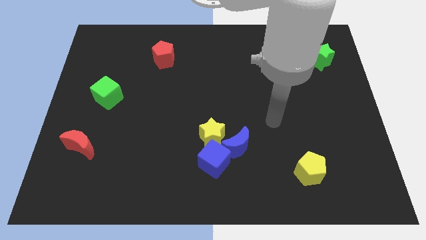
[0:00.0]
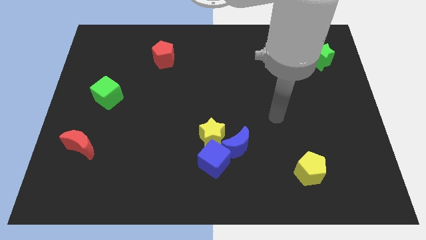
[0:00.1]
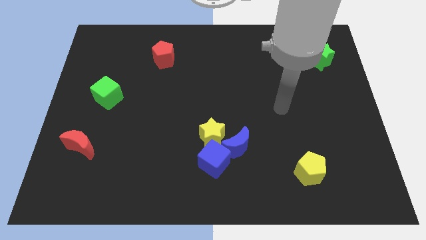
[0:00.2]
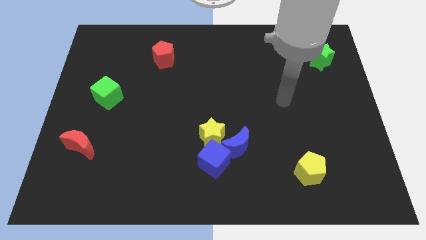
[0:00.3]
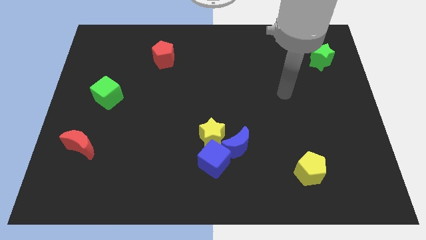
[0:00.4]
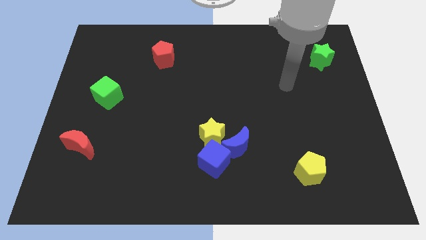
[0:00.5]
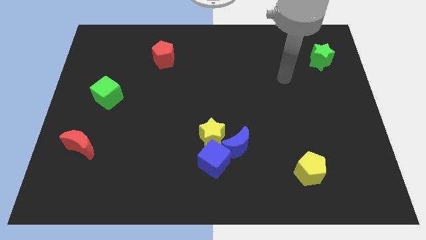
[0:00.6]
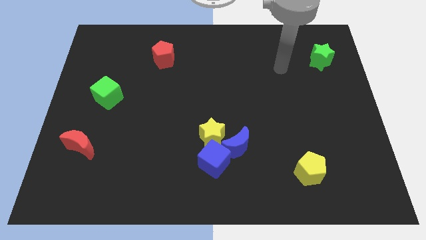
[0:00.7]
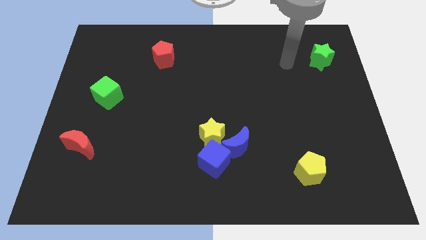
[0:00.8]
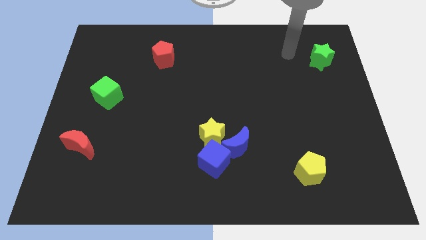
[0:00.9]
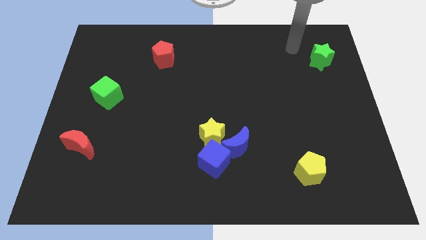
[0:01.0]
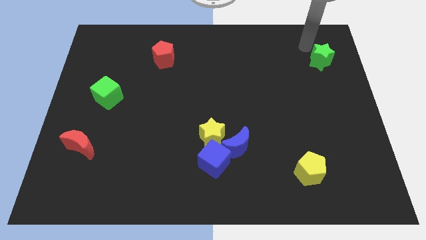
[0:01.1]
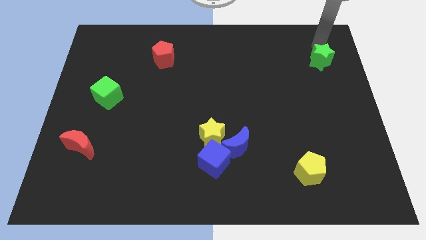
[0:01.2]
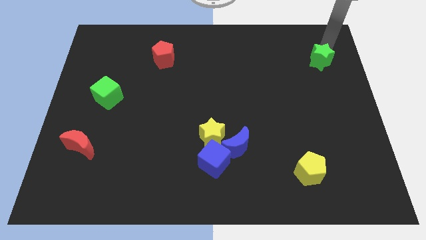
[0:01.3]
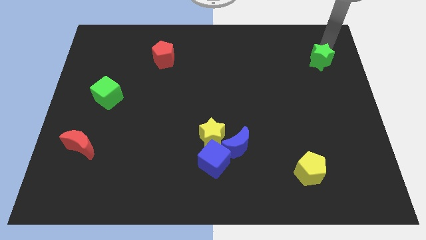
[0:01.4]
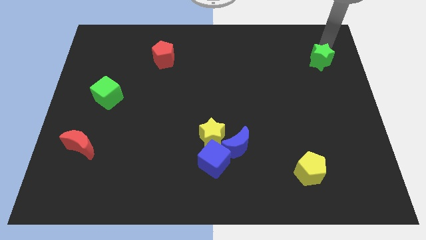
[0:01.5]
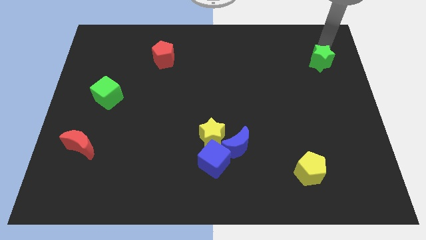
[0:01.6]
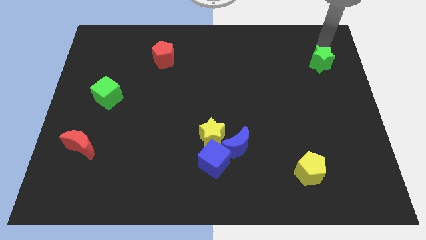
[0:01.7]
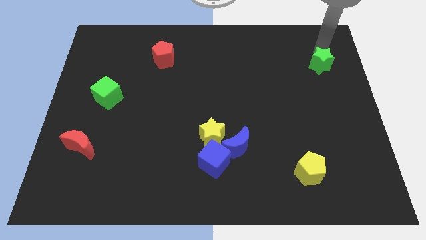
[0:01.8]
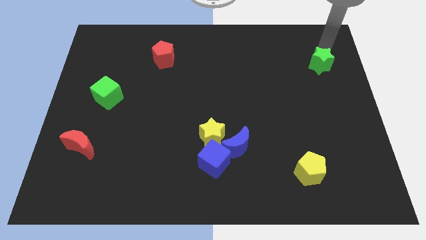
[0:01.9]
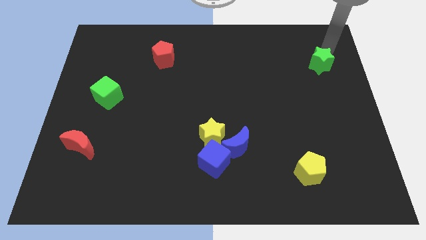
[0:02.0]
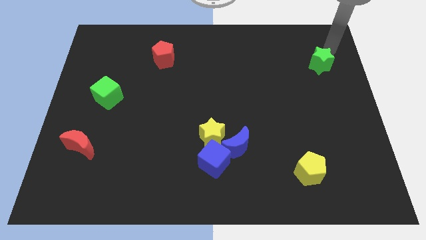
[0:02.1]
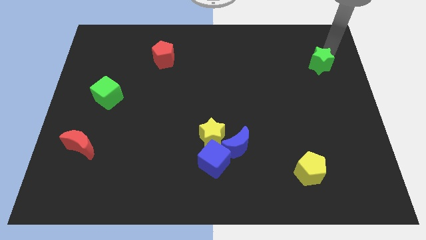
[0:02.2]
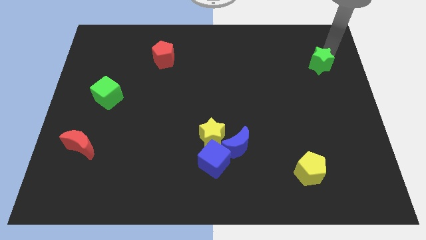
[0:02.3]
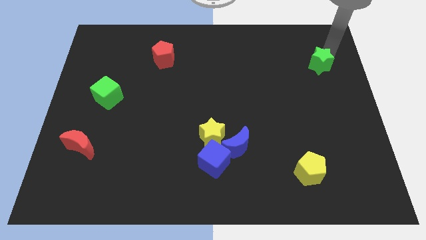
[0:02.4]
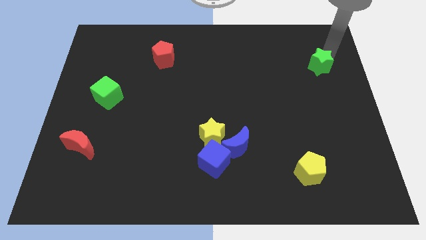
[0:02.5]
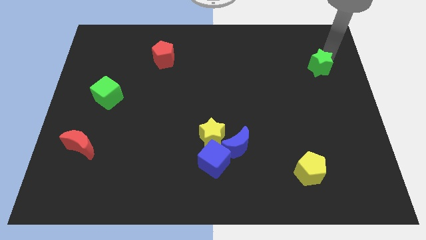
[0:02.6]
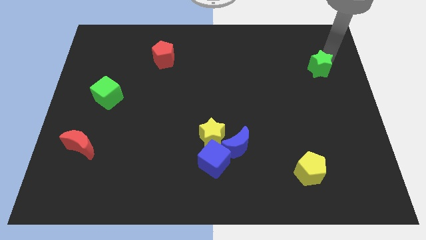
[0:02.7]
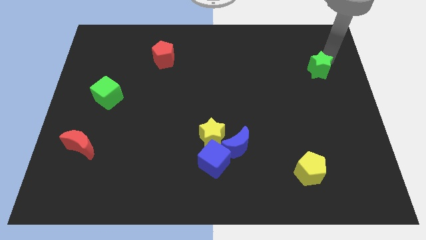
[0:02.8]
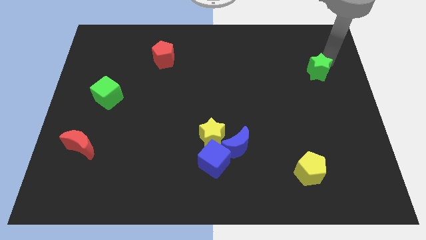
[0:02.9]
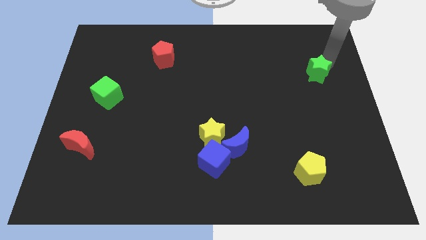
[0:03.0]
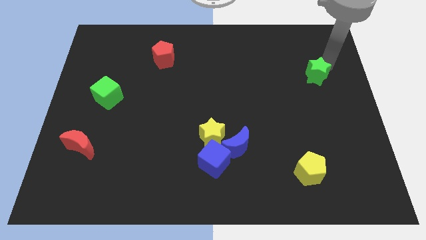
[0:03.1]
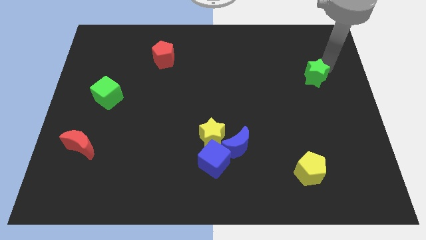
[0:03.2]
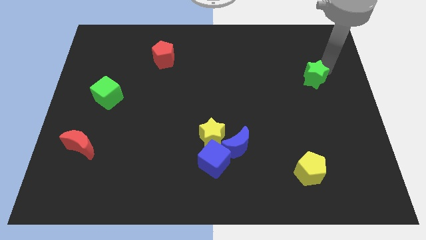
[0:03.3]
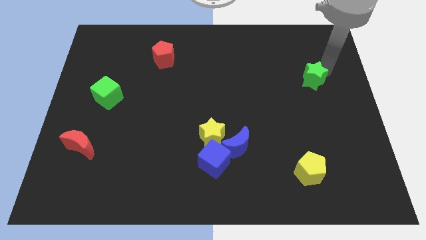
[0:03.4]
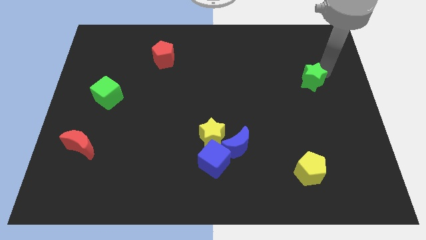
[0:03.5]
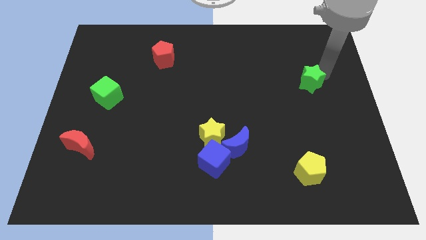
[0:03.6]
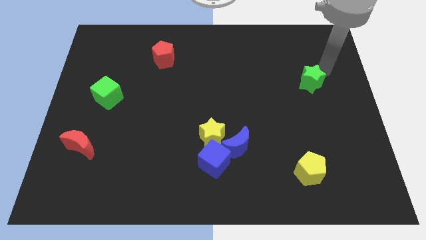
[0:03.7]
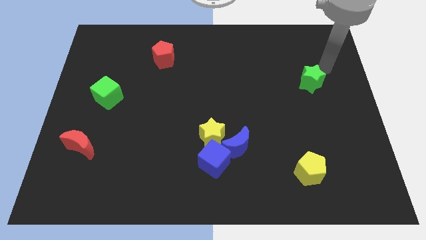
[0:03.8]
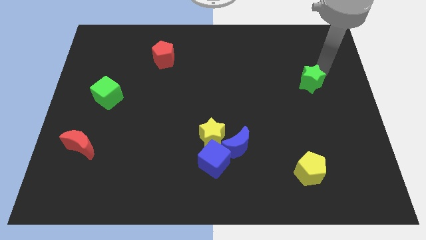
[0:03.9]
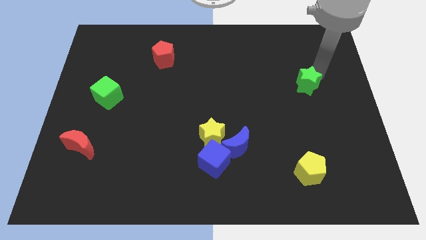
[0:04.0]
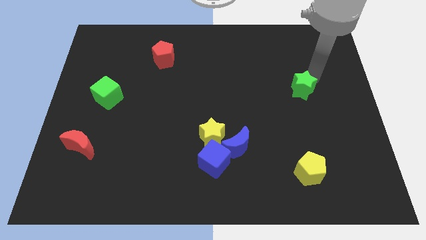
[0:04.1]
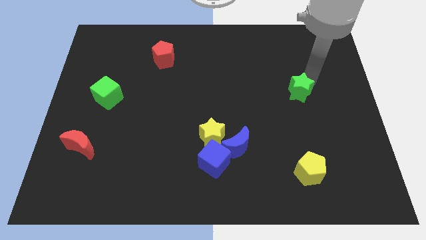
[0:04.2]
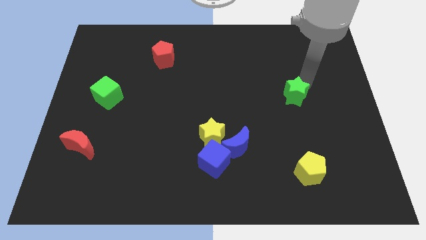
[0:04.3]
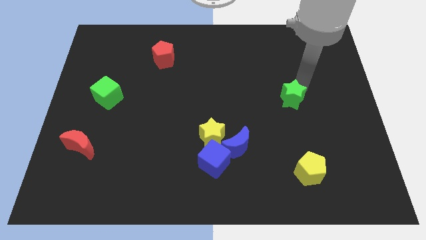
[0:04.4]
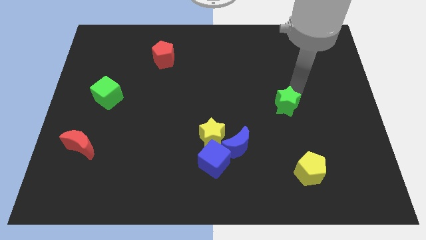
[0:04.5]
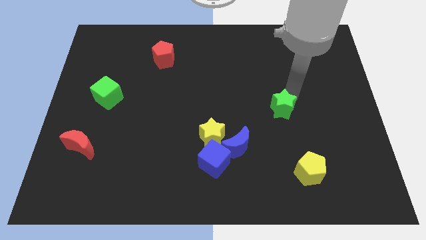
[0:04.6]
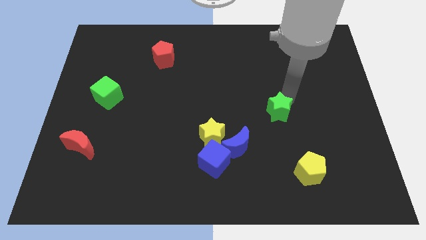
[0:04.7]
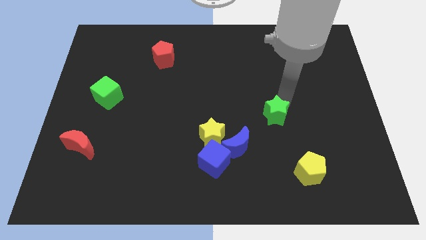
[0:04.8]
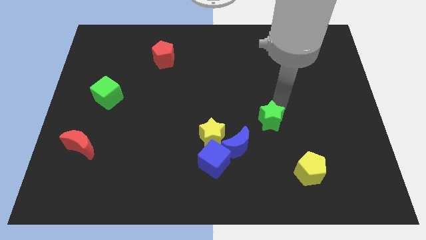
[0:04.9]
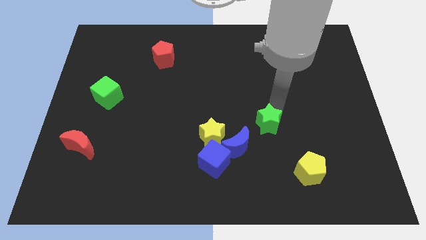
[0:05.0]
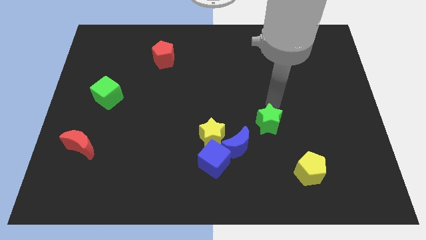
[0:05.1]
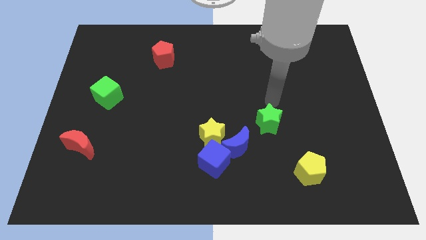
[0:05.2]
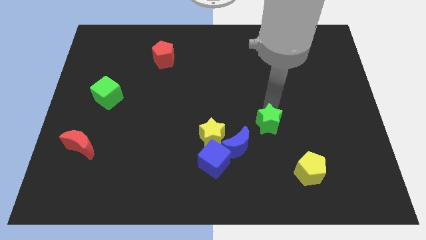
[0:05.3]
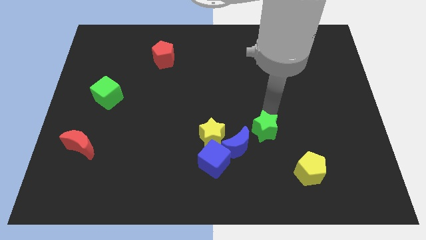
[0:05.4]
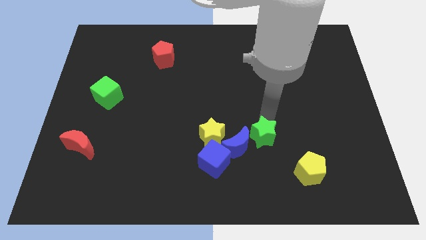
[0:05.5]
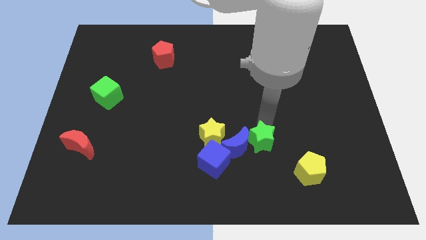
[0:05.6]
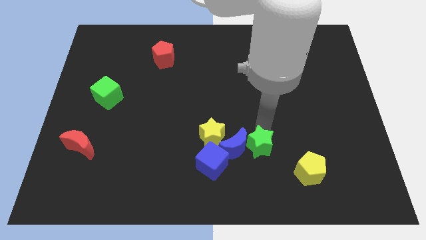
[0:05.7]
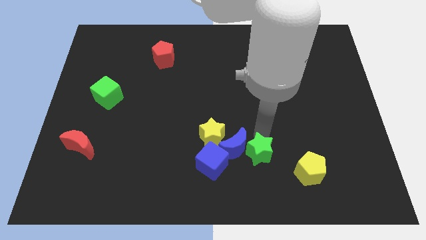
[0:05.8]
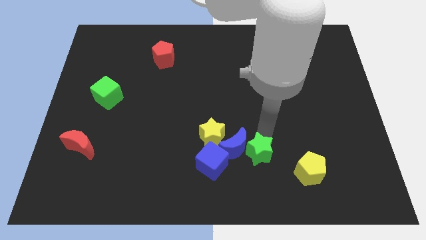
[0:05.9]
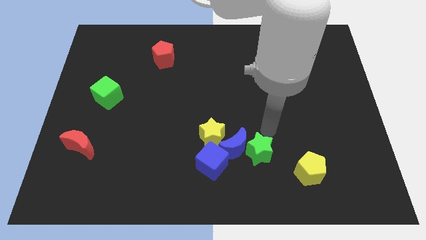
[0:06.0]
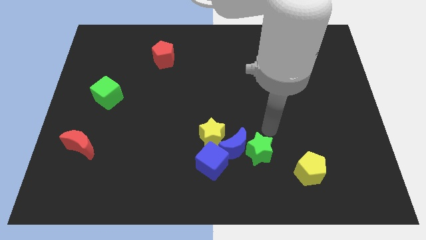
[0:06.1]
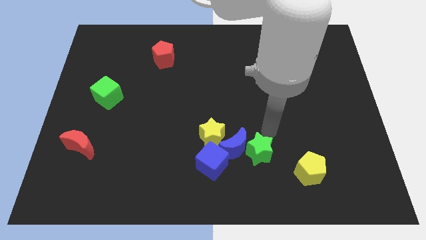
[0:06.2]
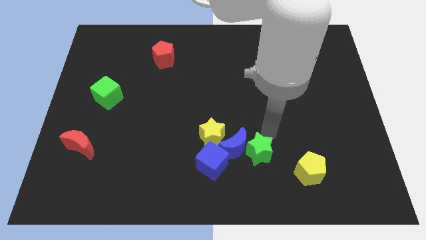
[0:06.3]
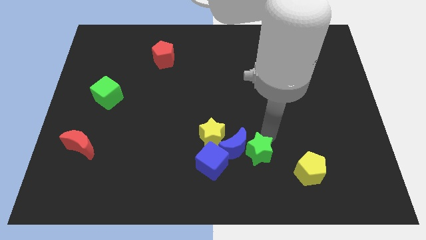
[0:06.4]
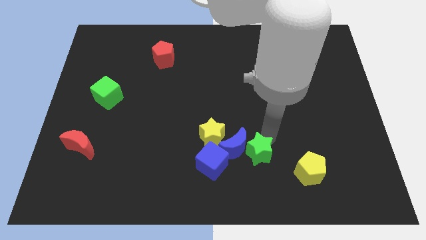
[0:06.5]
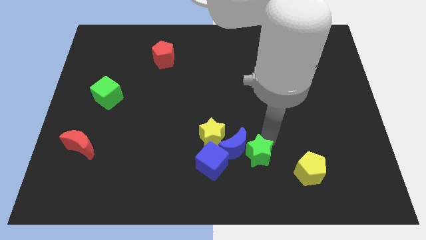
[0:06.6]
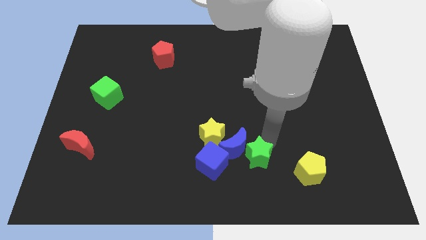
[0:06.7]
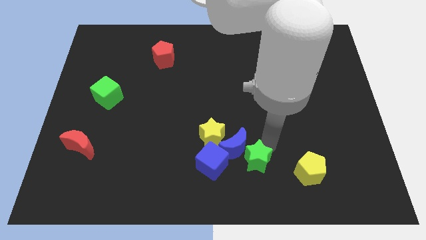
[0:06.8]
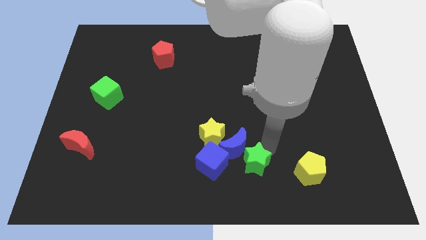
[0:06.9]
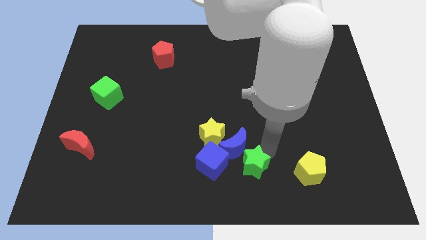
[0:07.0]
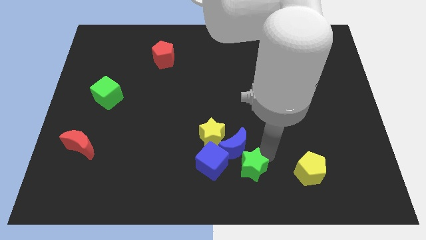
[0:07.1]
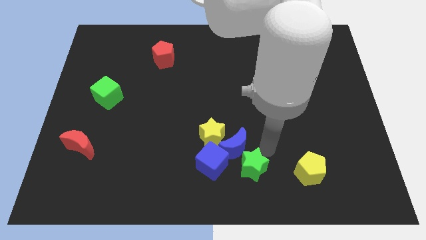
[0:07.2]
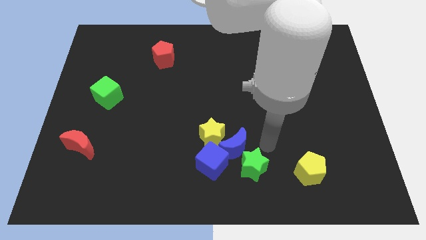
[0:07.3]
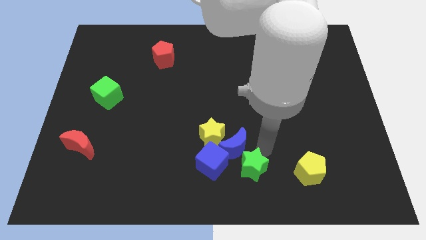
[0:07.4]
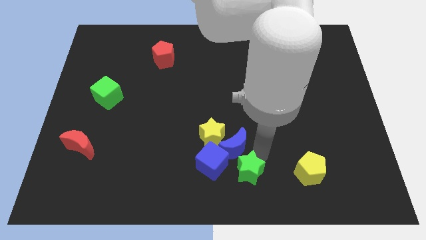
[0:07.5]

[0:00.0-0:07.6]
move the green star to the bottom right side of the blue cube
